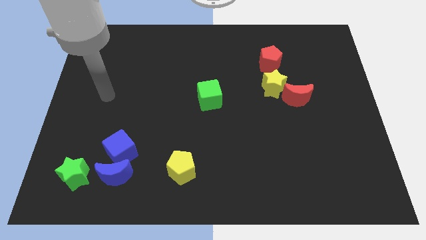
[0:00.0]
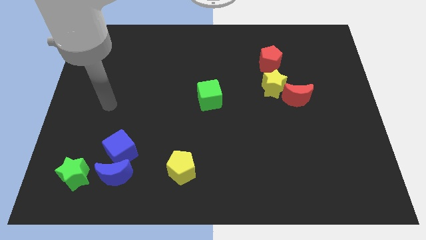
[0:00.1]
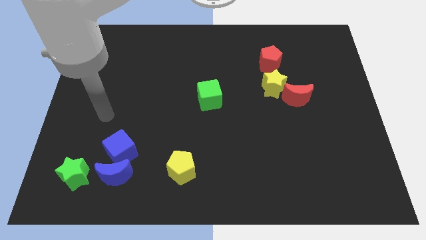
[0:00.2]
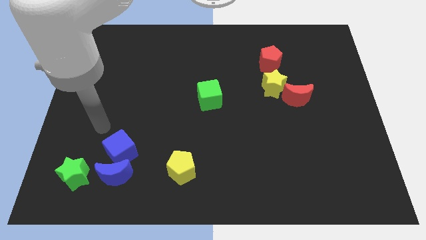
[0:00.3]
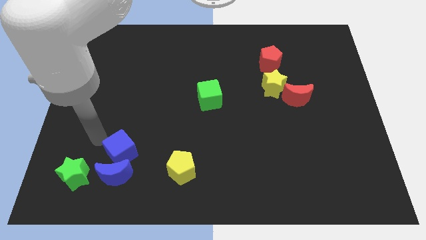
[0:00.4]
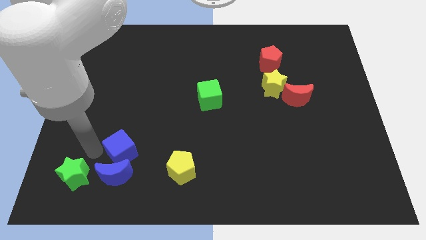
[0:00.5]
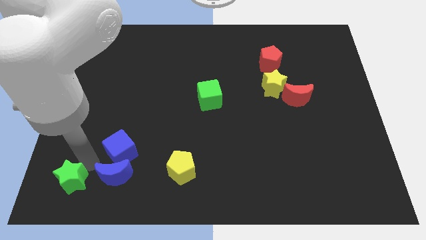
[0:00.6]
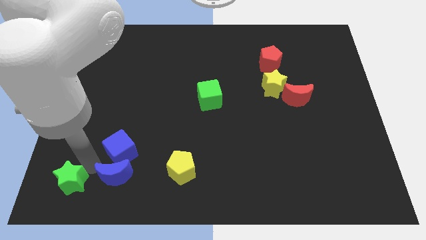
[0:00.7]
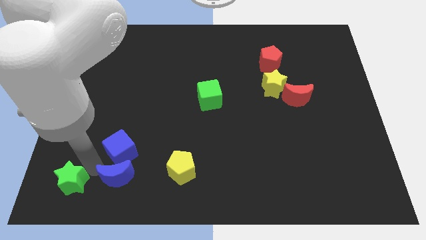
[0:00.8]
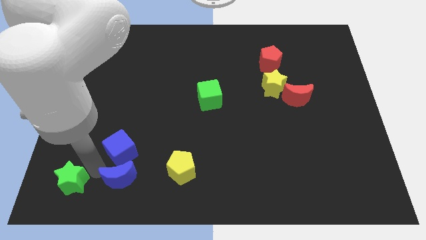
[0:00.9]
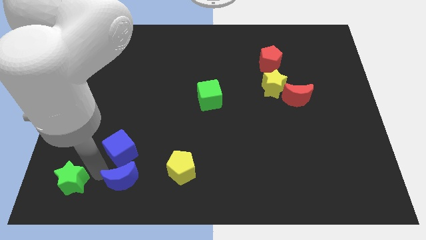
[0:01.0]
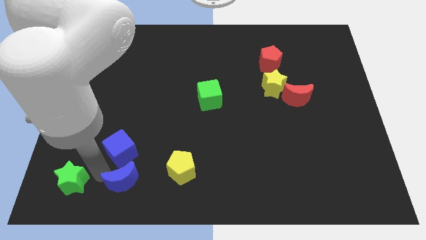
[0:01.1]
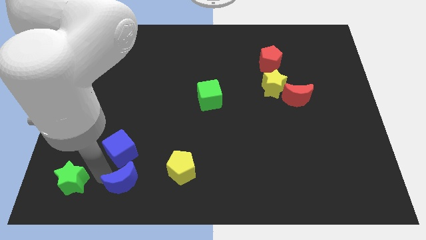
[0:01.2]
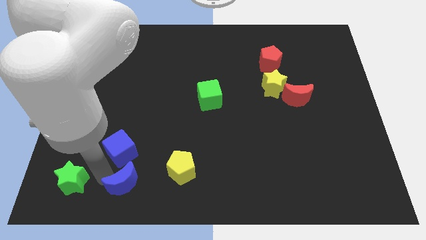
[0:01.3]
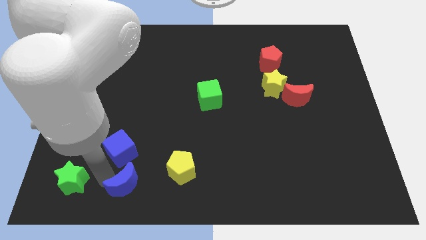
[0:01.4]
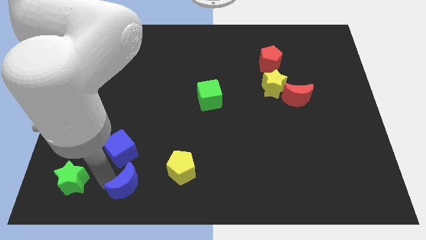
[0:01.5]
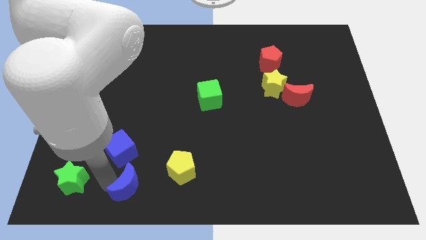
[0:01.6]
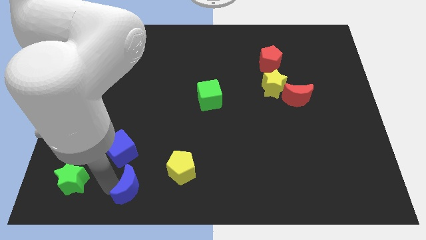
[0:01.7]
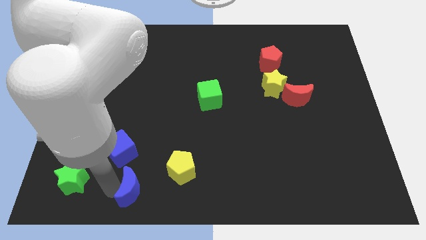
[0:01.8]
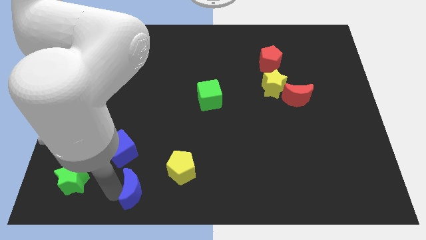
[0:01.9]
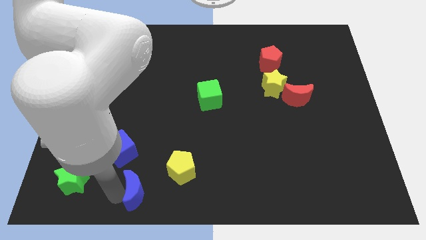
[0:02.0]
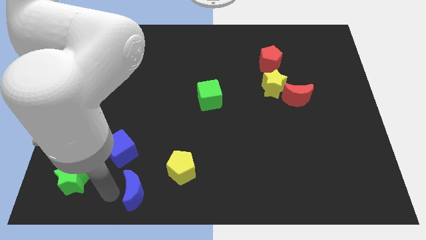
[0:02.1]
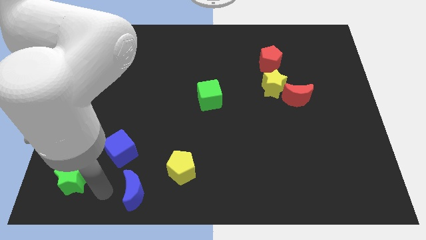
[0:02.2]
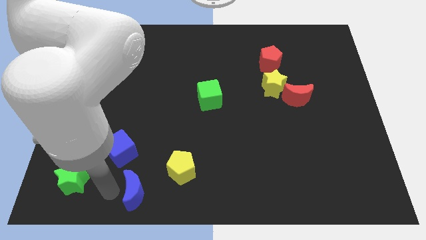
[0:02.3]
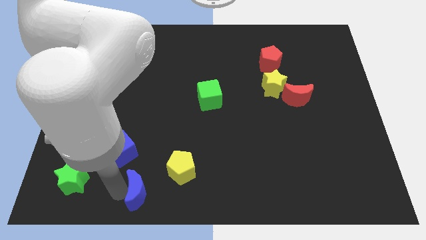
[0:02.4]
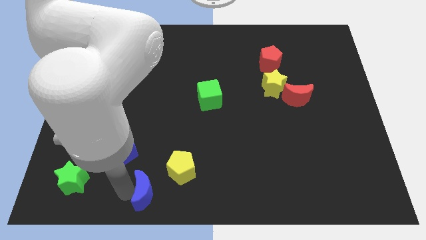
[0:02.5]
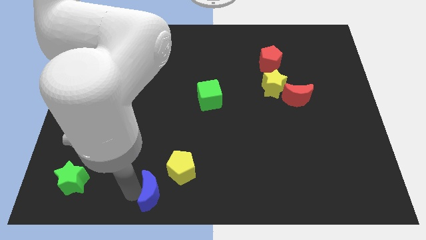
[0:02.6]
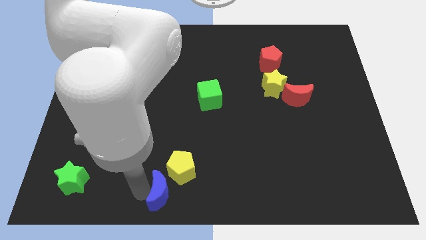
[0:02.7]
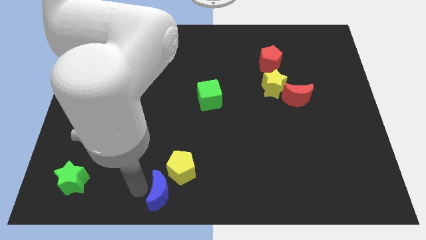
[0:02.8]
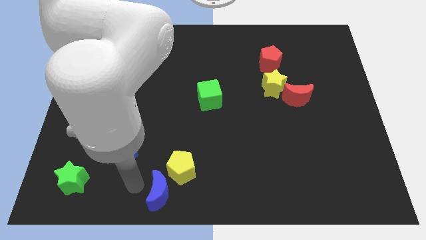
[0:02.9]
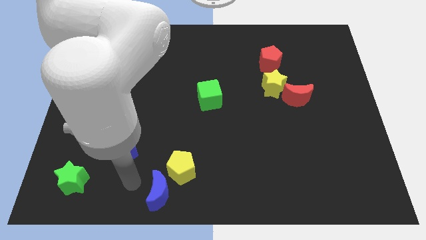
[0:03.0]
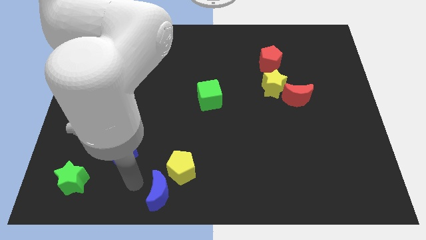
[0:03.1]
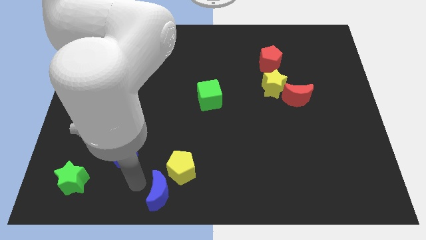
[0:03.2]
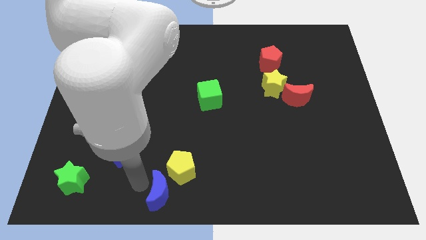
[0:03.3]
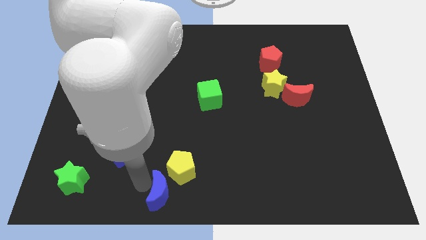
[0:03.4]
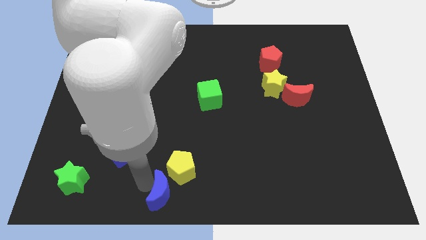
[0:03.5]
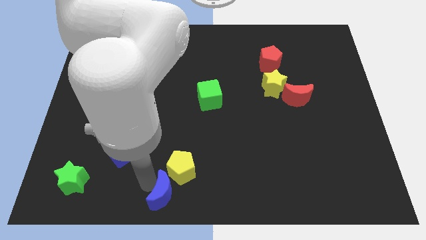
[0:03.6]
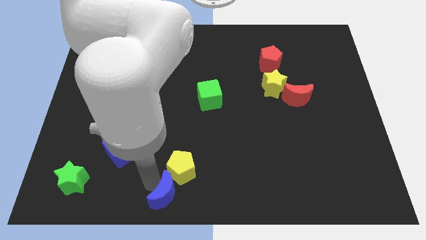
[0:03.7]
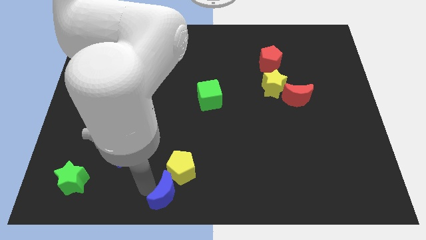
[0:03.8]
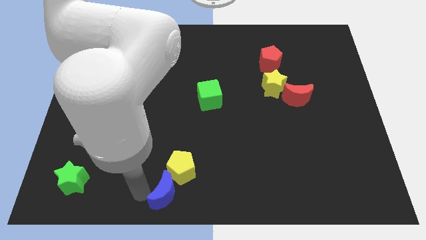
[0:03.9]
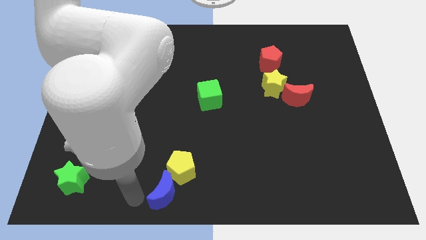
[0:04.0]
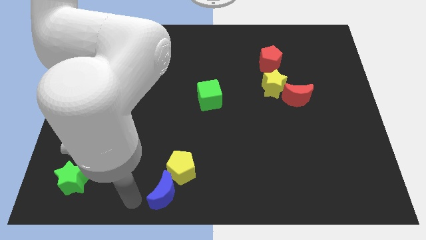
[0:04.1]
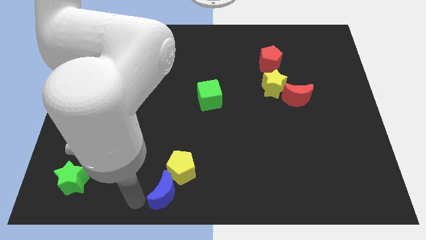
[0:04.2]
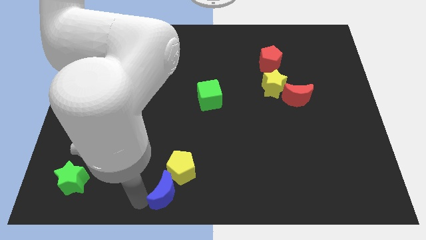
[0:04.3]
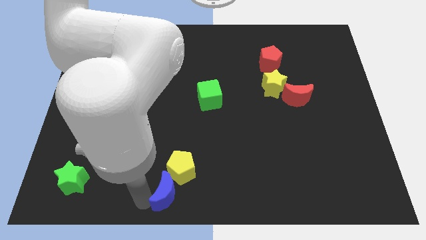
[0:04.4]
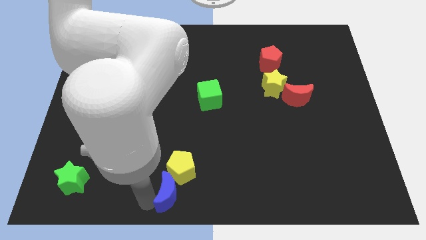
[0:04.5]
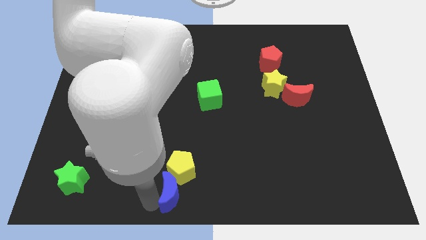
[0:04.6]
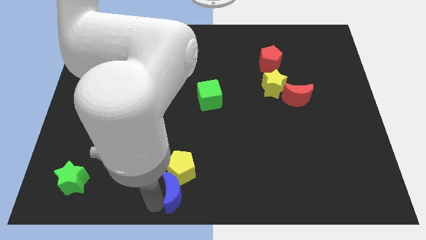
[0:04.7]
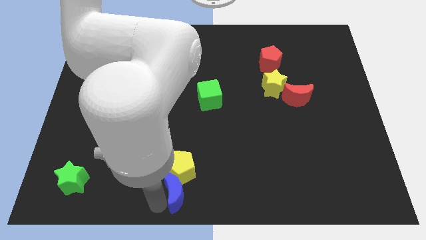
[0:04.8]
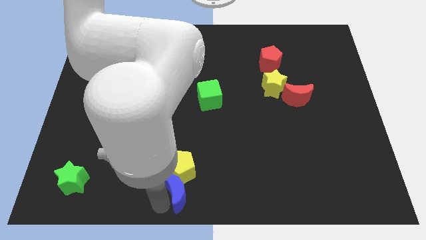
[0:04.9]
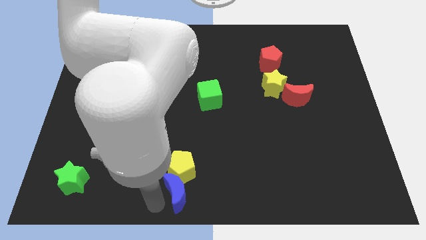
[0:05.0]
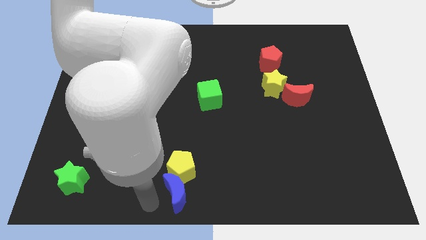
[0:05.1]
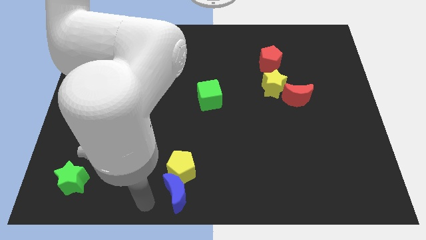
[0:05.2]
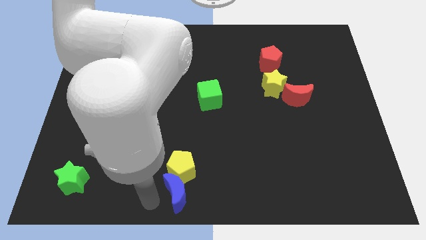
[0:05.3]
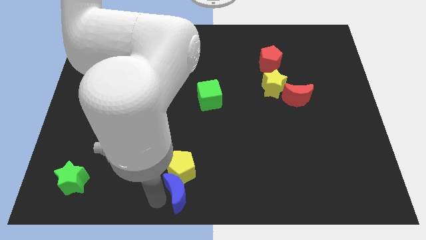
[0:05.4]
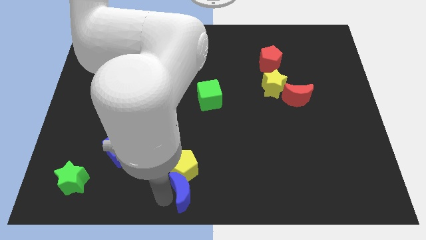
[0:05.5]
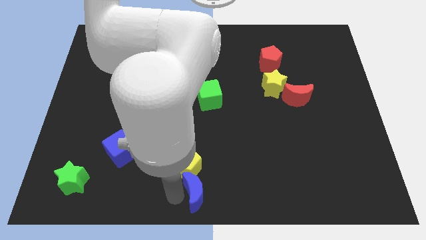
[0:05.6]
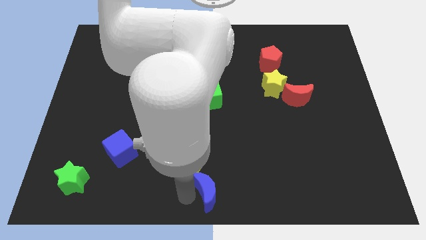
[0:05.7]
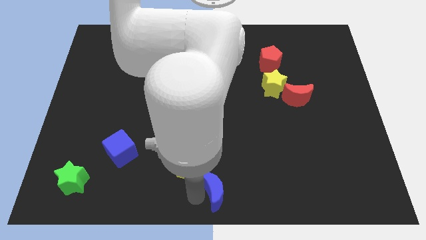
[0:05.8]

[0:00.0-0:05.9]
move the blue moon right

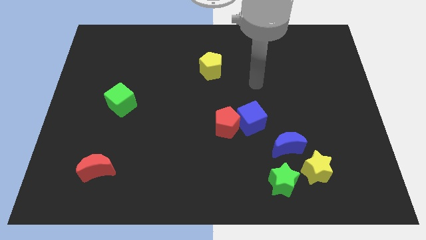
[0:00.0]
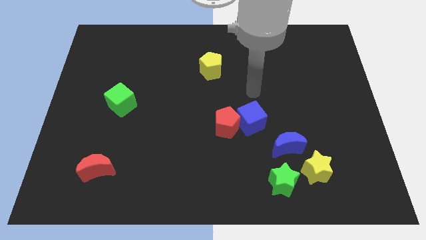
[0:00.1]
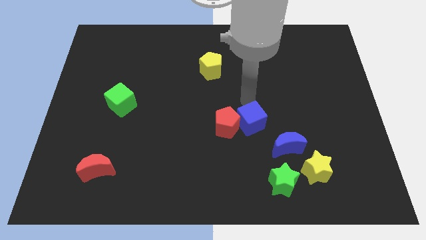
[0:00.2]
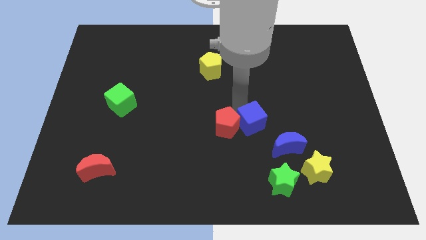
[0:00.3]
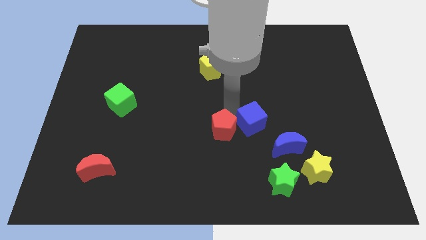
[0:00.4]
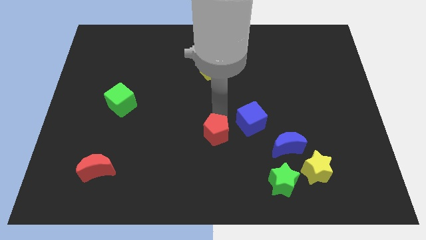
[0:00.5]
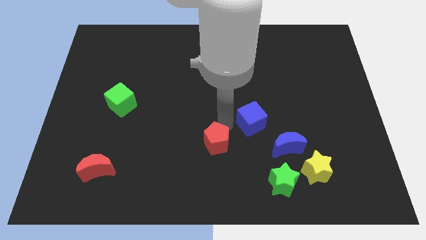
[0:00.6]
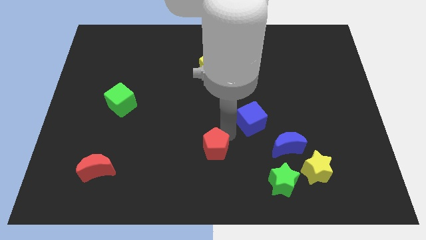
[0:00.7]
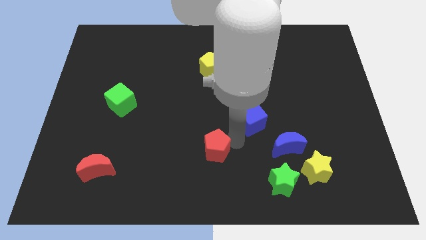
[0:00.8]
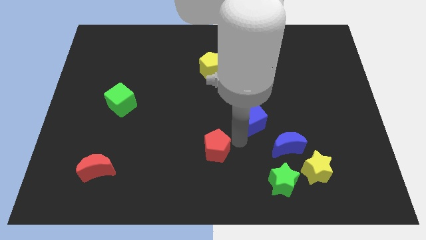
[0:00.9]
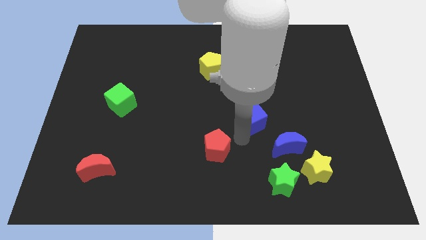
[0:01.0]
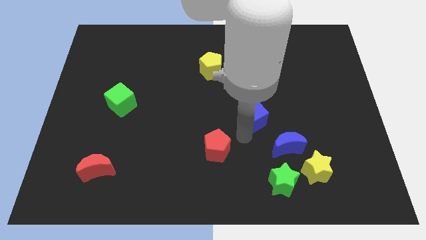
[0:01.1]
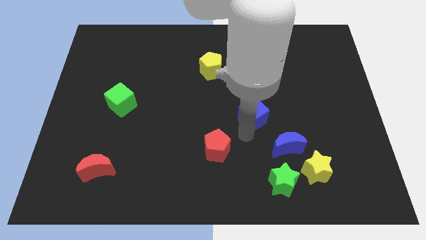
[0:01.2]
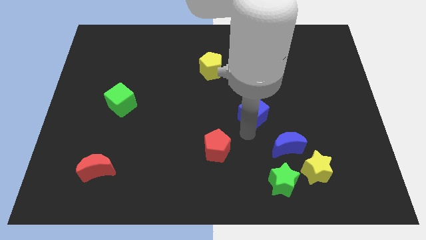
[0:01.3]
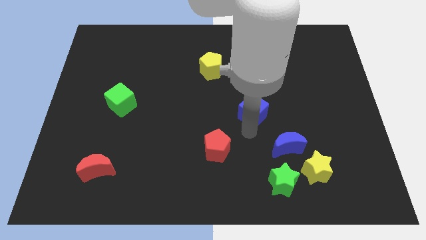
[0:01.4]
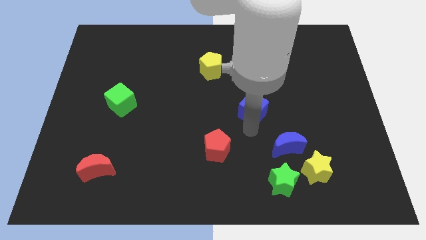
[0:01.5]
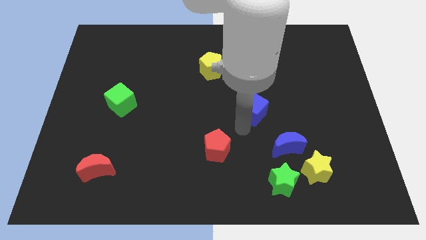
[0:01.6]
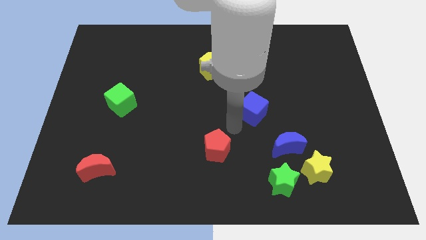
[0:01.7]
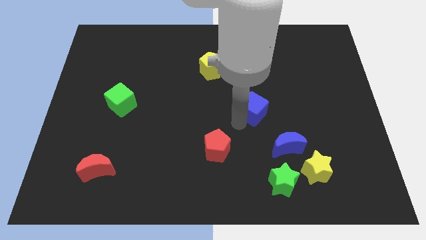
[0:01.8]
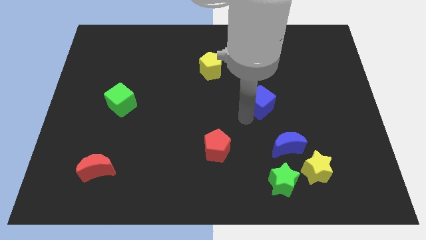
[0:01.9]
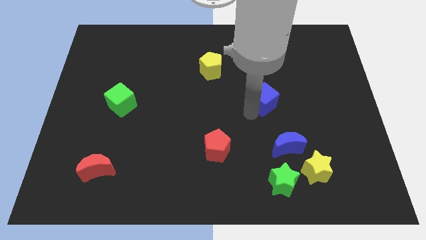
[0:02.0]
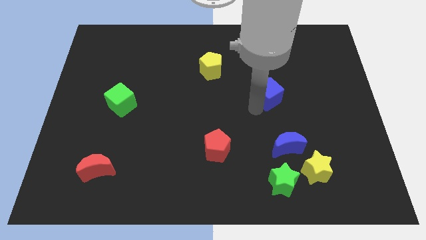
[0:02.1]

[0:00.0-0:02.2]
slightly slide the blue cube upwards and right
